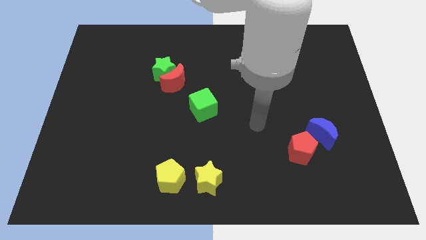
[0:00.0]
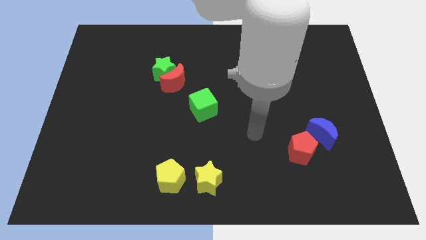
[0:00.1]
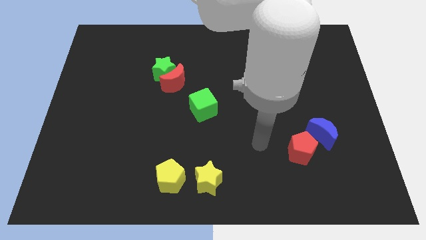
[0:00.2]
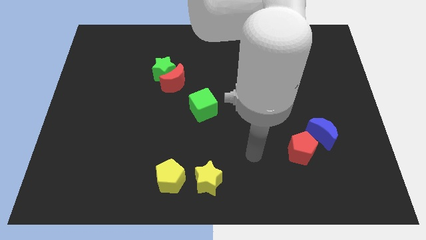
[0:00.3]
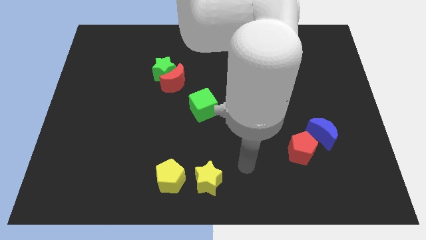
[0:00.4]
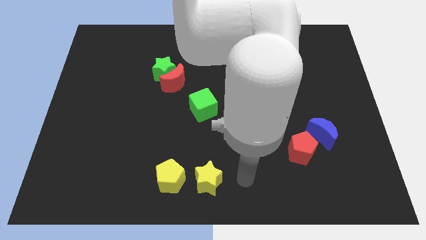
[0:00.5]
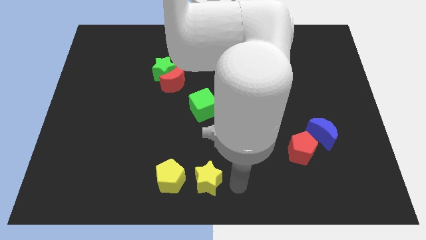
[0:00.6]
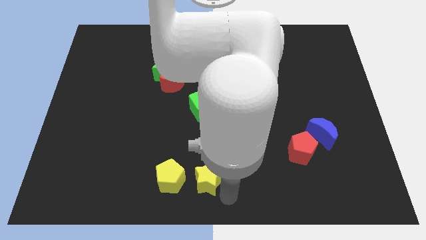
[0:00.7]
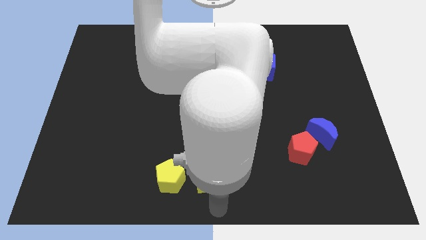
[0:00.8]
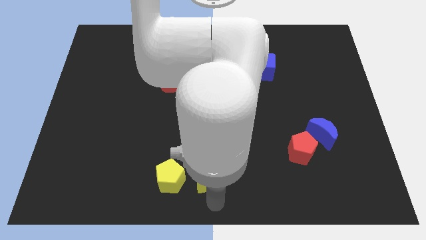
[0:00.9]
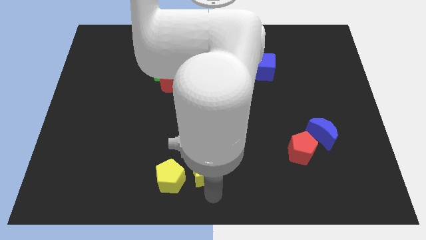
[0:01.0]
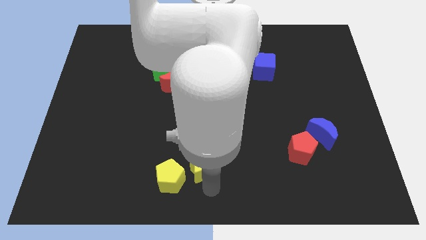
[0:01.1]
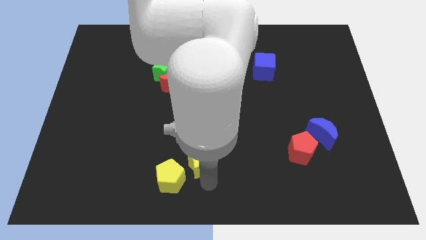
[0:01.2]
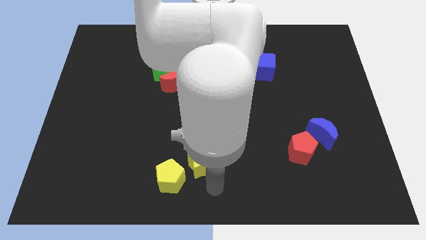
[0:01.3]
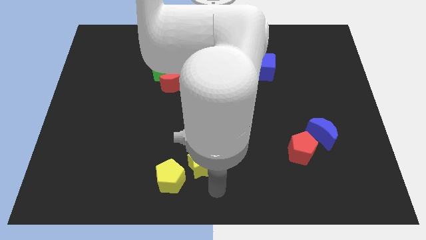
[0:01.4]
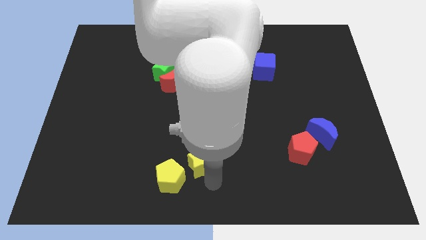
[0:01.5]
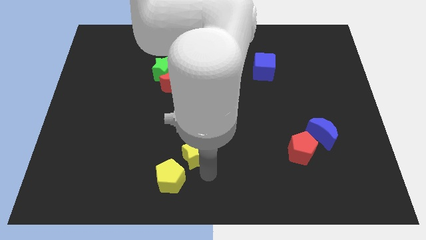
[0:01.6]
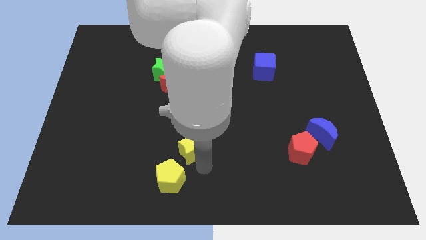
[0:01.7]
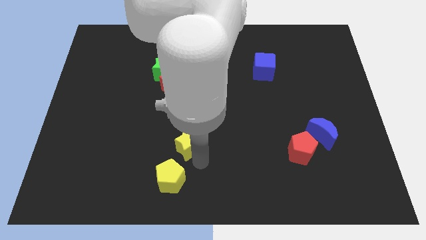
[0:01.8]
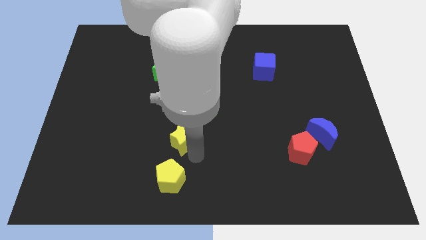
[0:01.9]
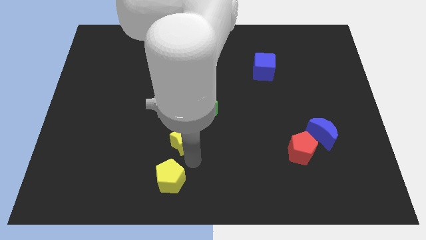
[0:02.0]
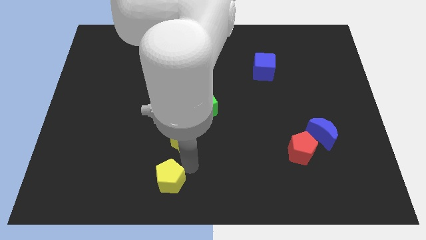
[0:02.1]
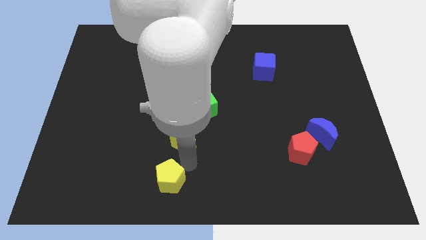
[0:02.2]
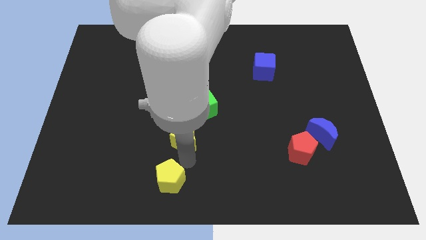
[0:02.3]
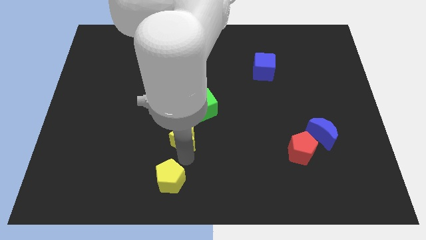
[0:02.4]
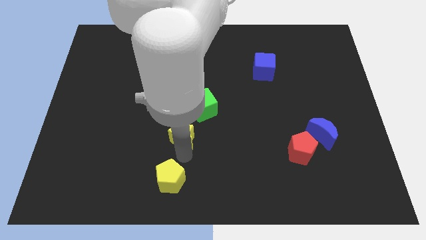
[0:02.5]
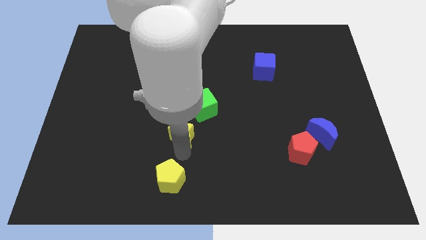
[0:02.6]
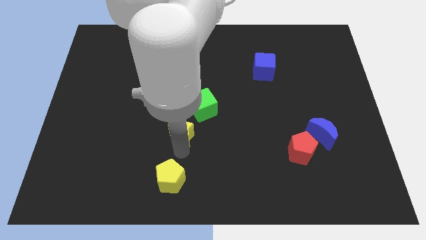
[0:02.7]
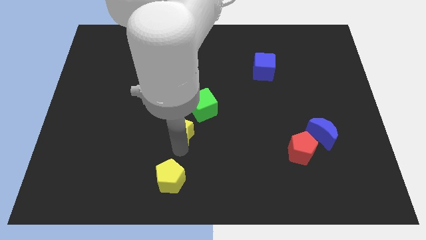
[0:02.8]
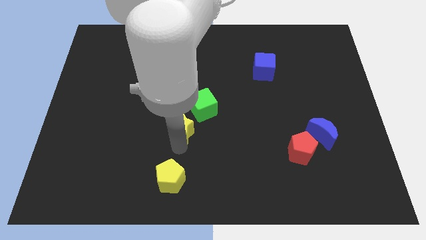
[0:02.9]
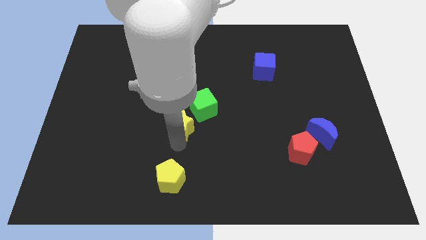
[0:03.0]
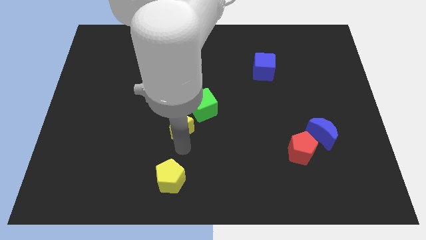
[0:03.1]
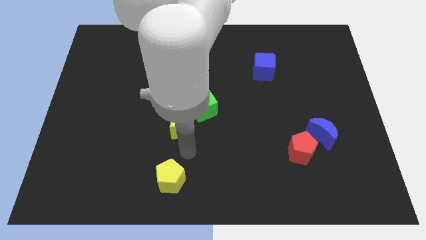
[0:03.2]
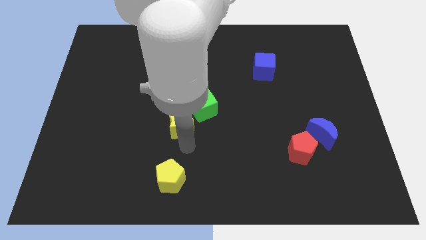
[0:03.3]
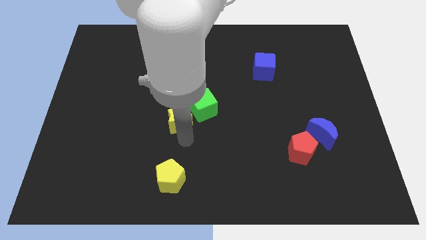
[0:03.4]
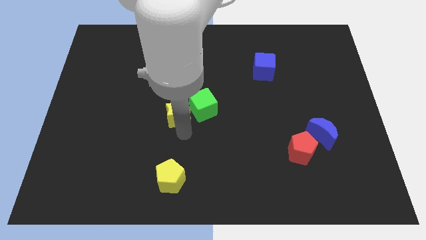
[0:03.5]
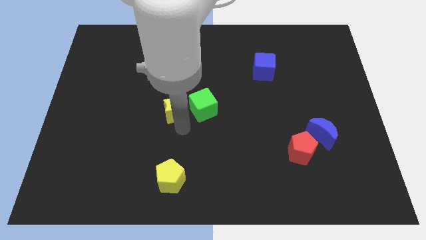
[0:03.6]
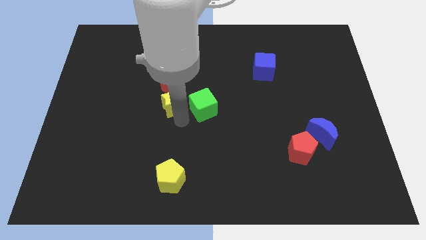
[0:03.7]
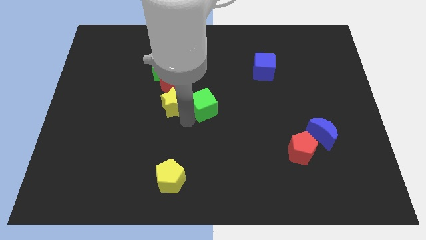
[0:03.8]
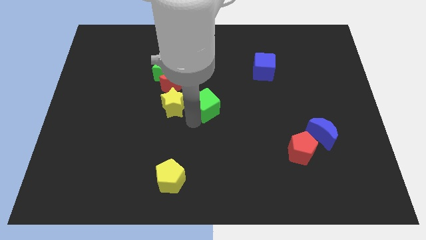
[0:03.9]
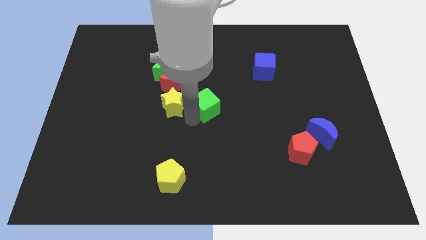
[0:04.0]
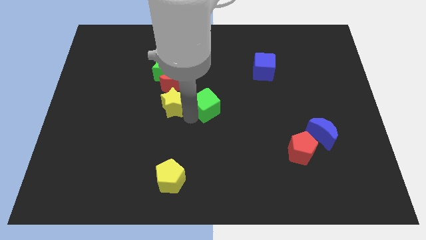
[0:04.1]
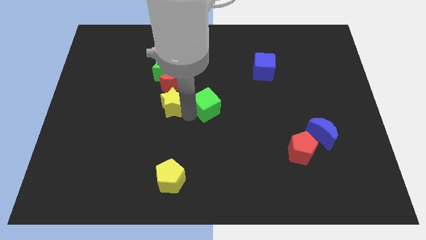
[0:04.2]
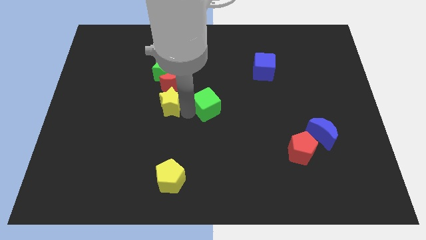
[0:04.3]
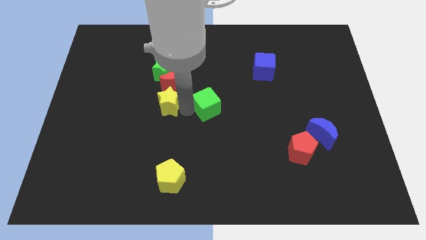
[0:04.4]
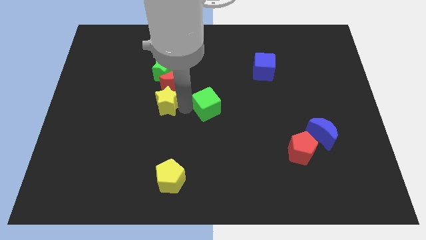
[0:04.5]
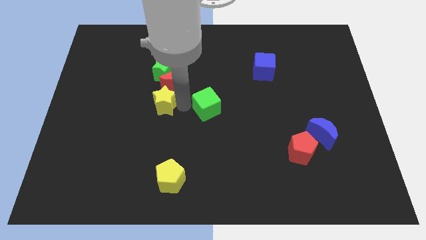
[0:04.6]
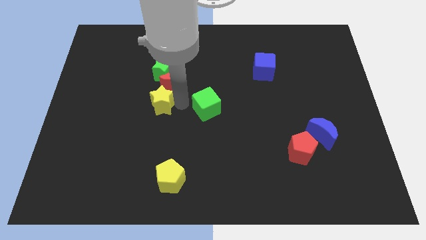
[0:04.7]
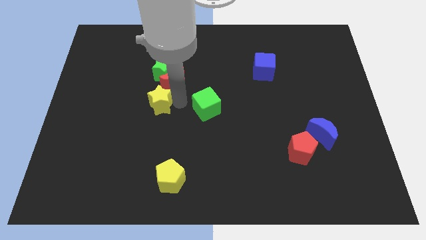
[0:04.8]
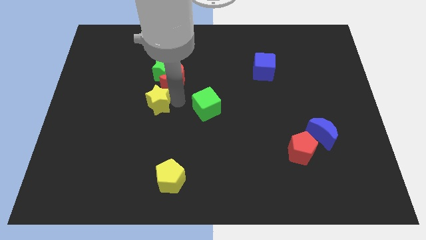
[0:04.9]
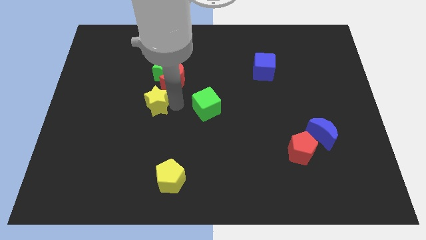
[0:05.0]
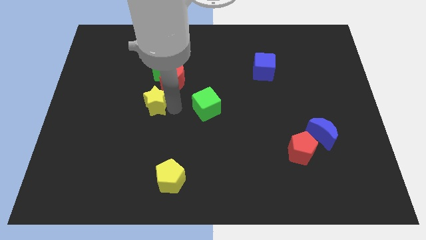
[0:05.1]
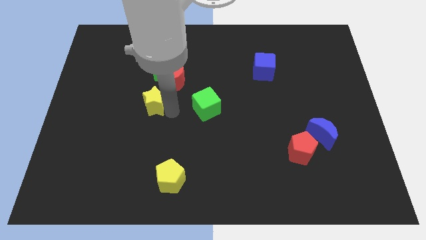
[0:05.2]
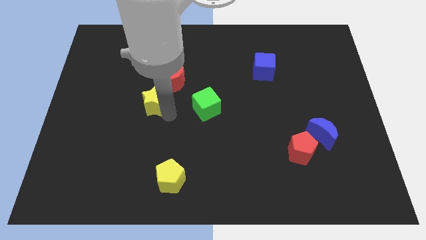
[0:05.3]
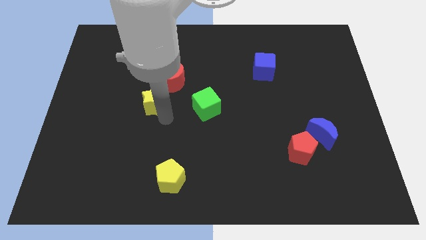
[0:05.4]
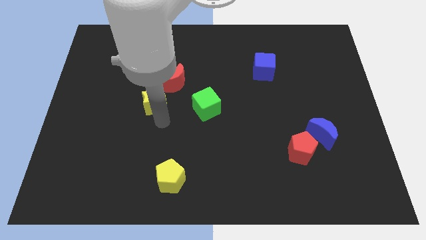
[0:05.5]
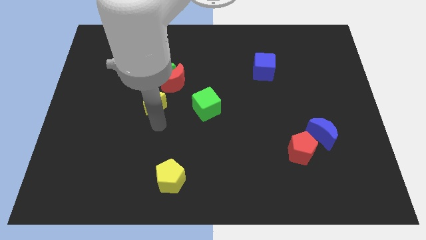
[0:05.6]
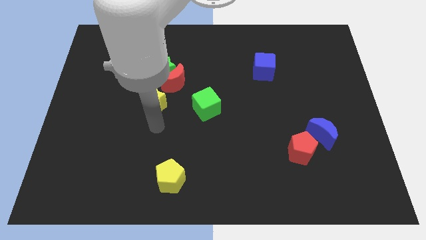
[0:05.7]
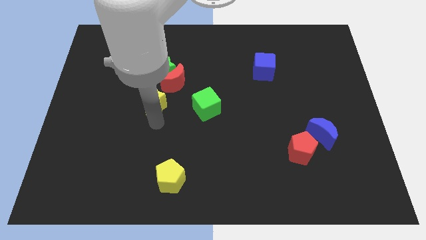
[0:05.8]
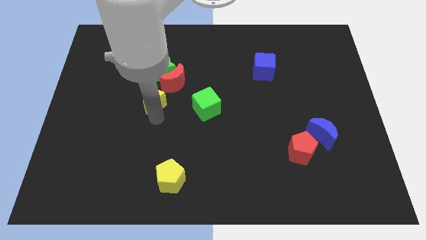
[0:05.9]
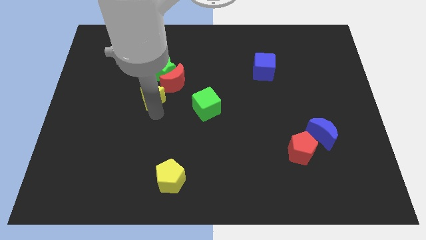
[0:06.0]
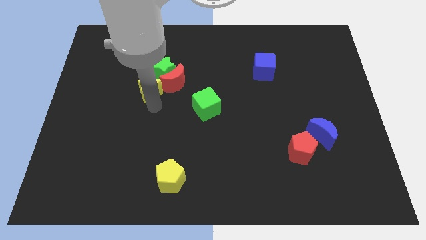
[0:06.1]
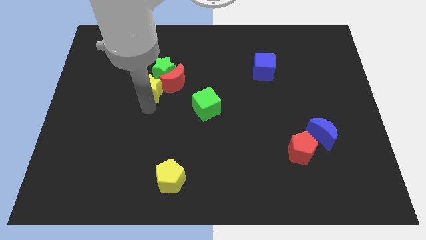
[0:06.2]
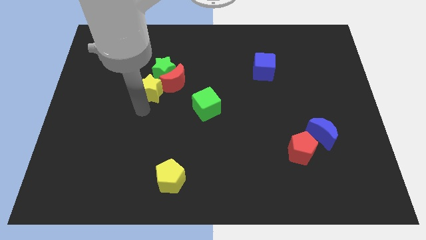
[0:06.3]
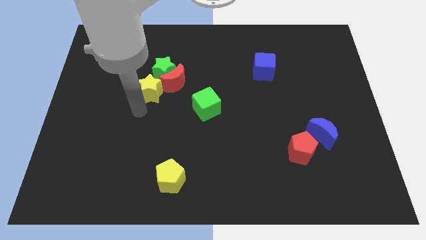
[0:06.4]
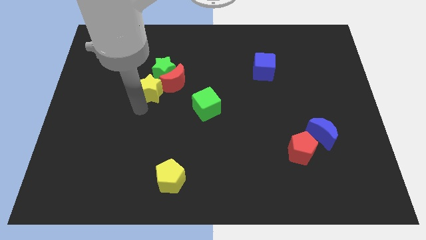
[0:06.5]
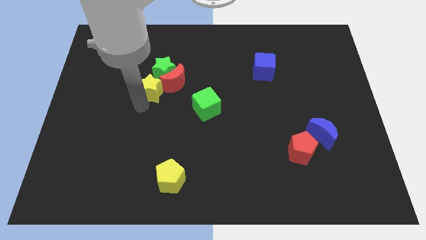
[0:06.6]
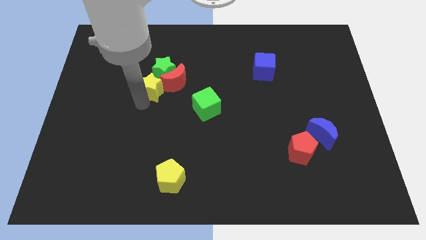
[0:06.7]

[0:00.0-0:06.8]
slide the yellow star towards the green star
